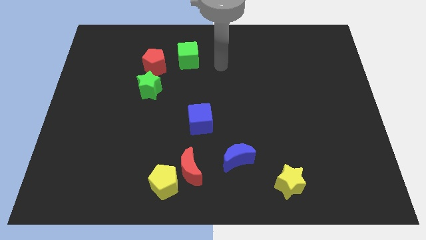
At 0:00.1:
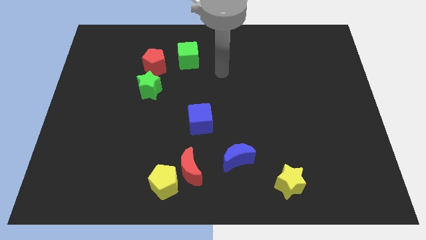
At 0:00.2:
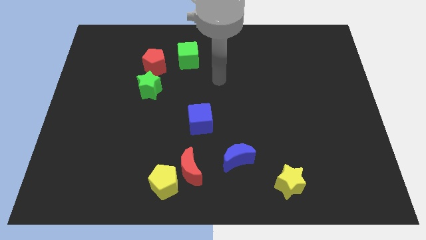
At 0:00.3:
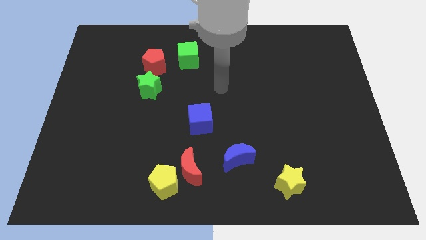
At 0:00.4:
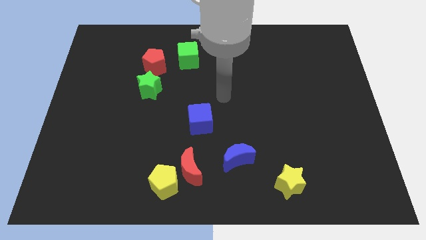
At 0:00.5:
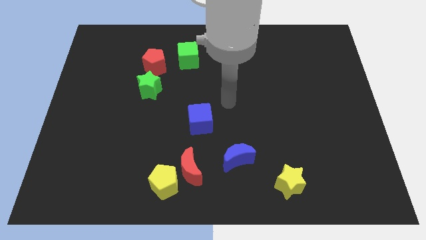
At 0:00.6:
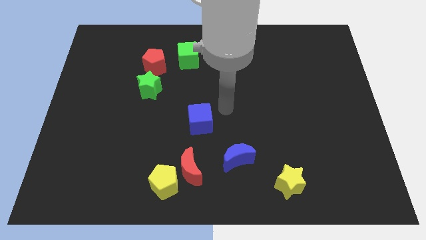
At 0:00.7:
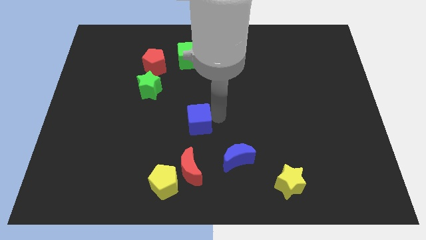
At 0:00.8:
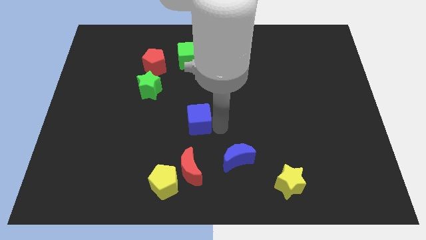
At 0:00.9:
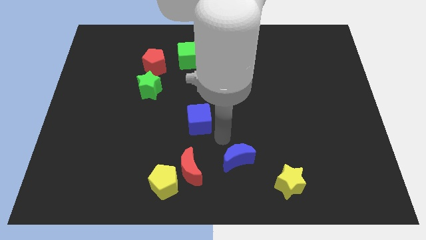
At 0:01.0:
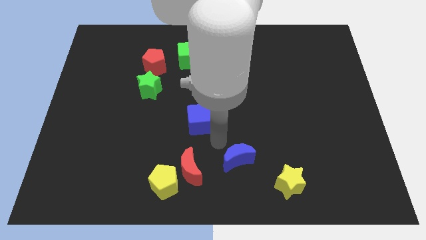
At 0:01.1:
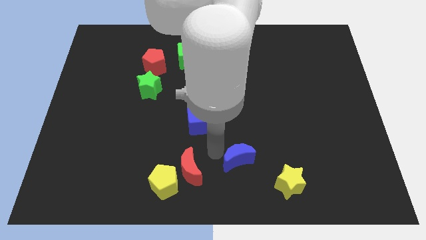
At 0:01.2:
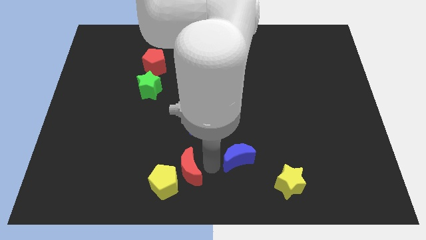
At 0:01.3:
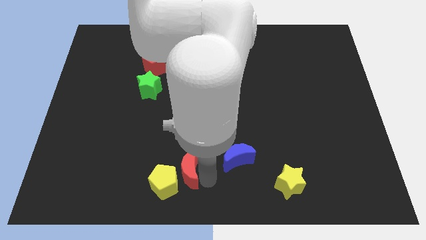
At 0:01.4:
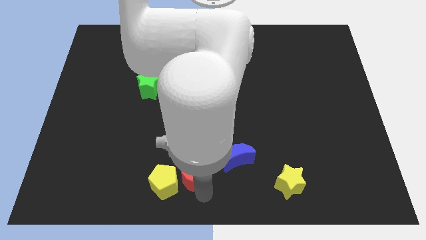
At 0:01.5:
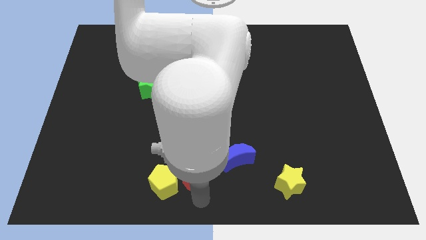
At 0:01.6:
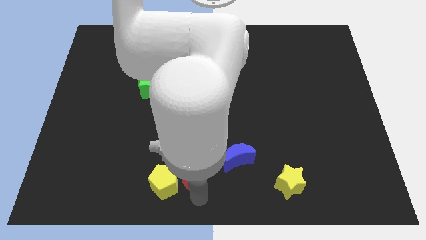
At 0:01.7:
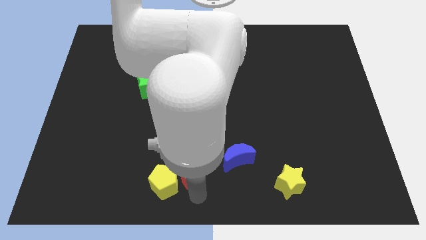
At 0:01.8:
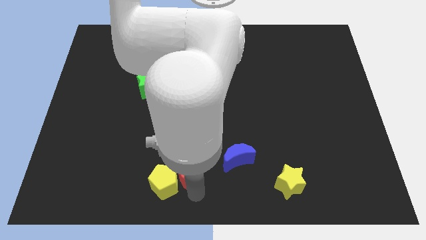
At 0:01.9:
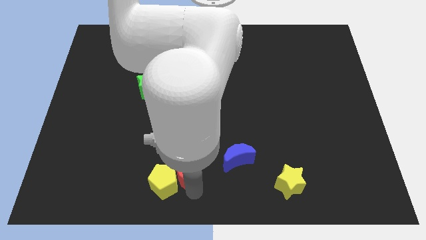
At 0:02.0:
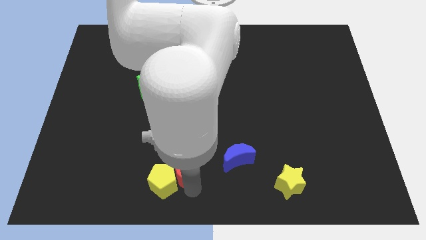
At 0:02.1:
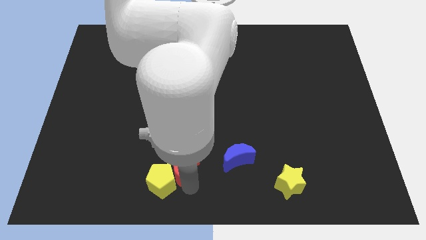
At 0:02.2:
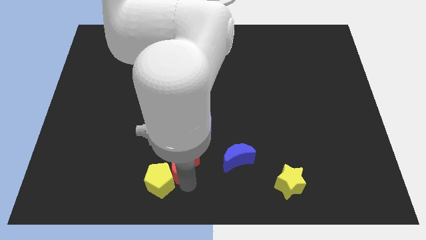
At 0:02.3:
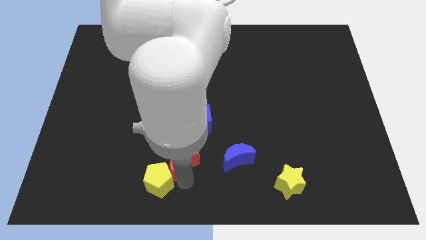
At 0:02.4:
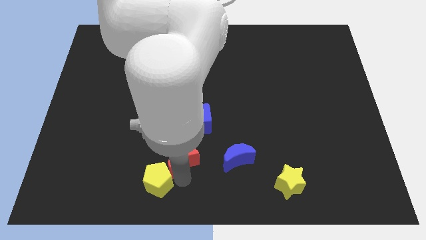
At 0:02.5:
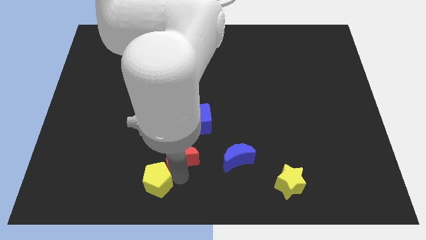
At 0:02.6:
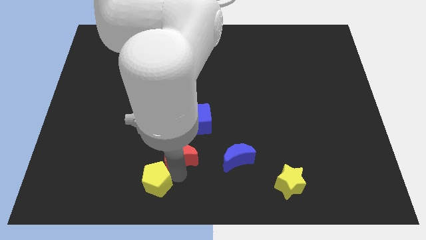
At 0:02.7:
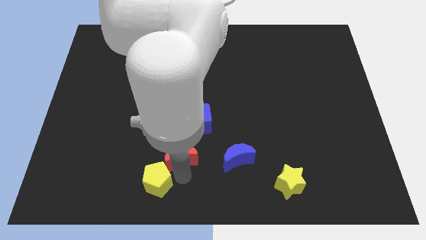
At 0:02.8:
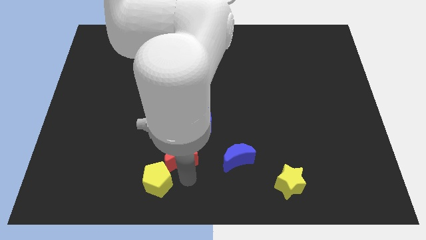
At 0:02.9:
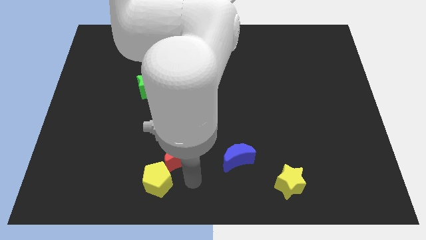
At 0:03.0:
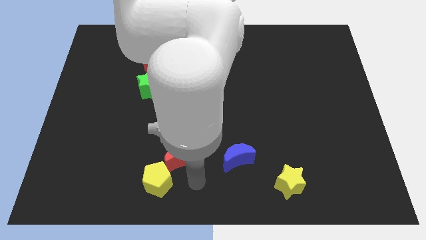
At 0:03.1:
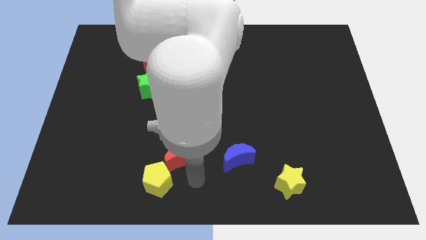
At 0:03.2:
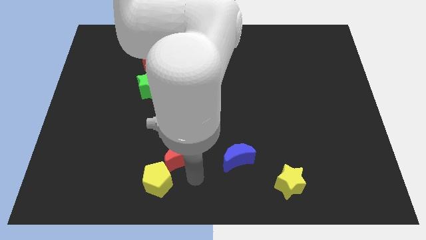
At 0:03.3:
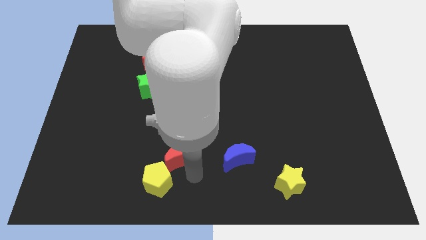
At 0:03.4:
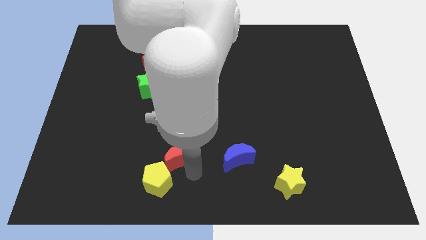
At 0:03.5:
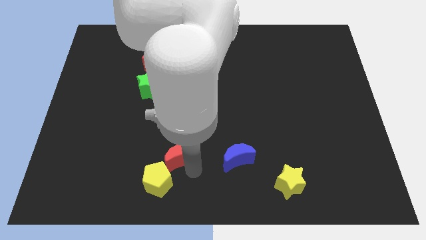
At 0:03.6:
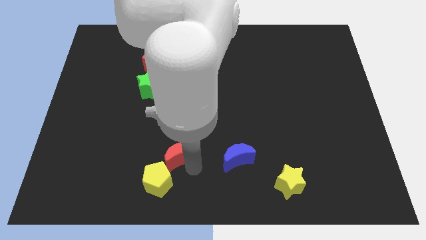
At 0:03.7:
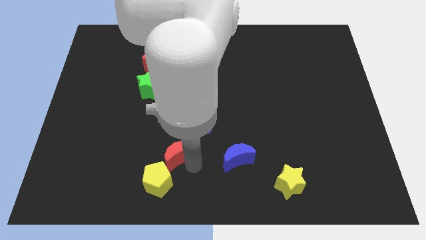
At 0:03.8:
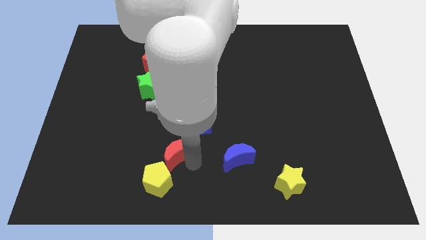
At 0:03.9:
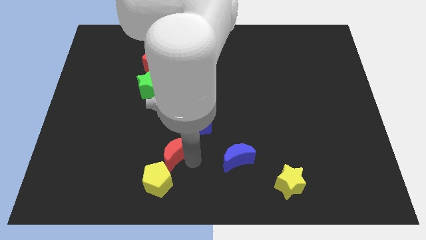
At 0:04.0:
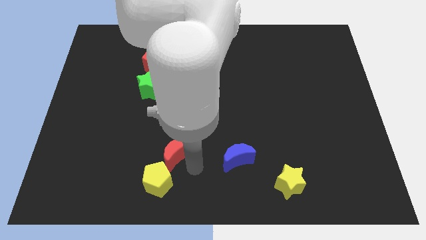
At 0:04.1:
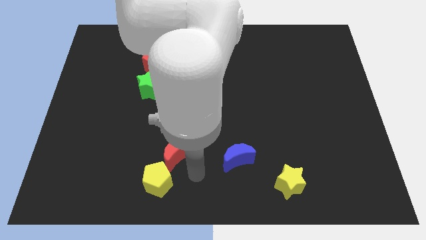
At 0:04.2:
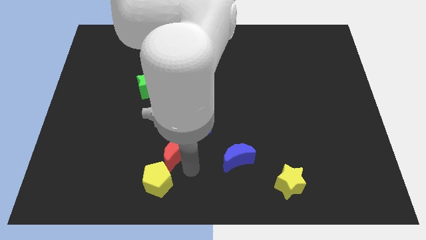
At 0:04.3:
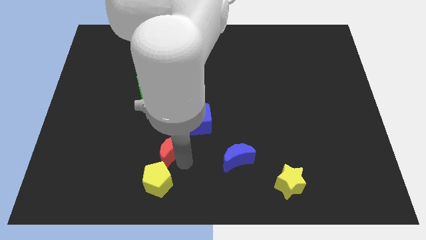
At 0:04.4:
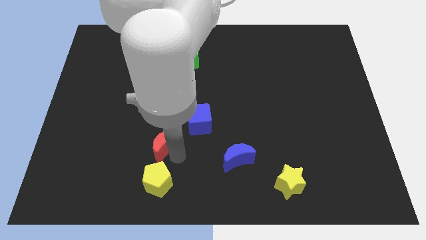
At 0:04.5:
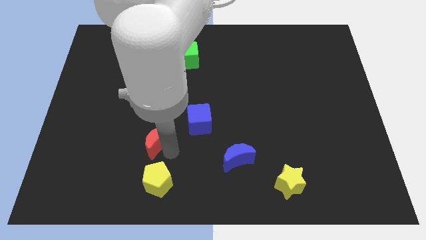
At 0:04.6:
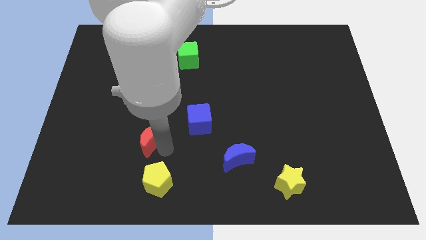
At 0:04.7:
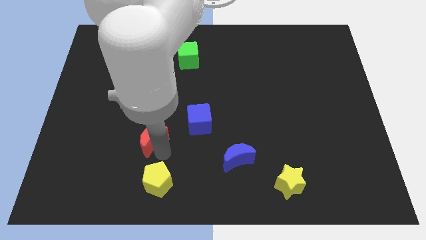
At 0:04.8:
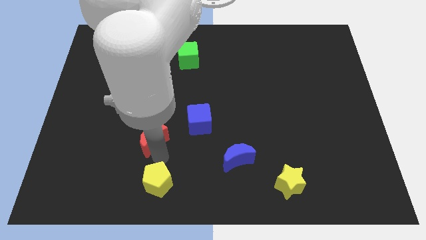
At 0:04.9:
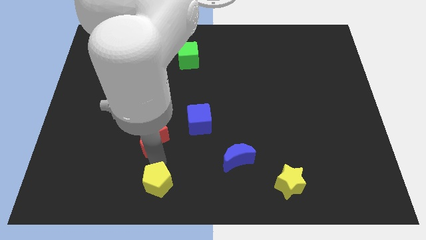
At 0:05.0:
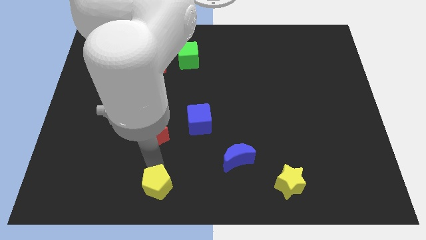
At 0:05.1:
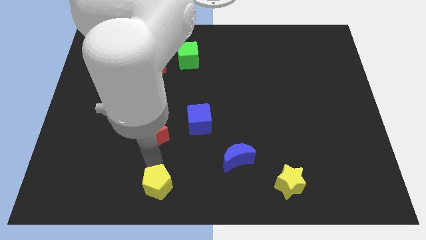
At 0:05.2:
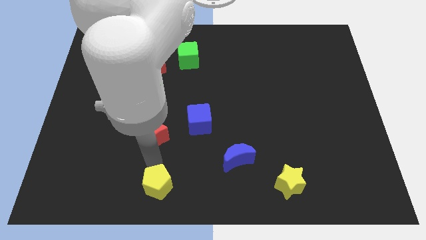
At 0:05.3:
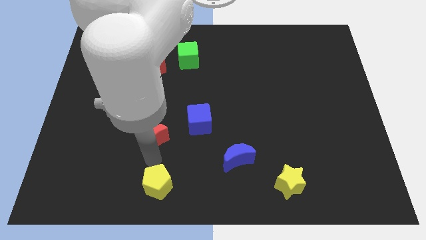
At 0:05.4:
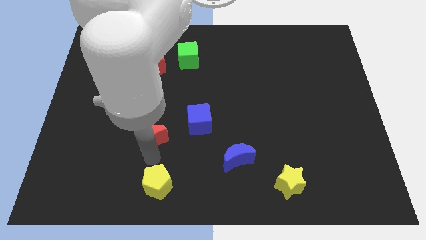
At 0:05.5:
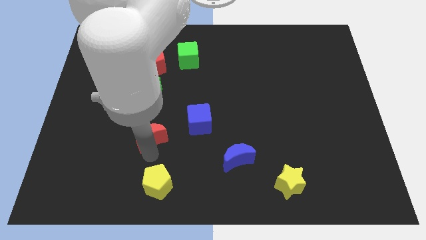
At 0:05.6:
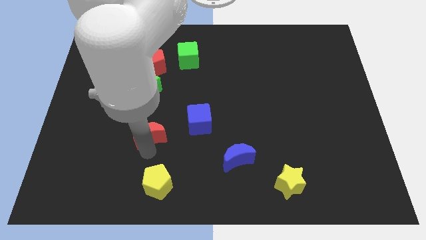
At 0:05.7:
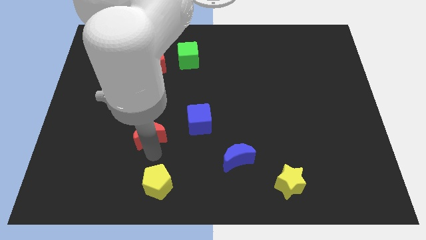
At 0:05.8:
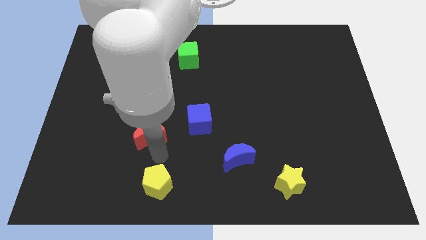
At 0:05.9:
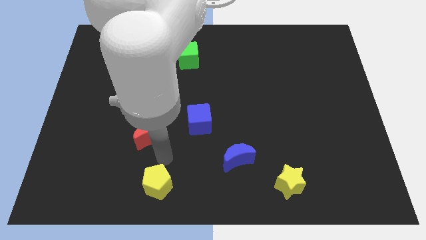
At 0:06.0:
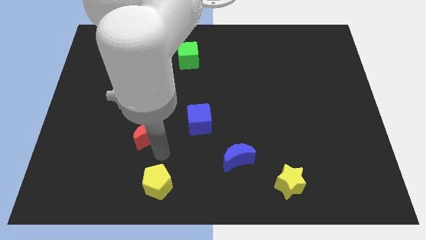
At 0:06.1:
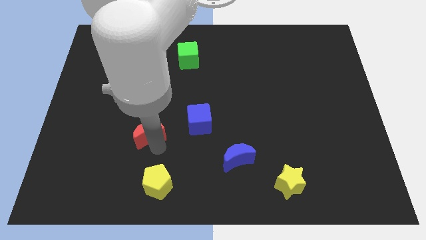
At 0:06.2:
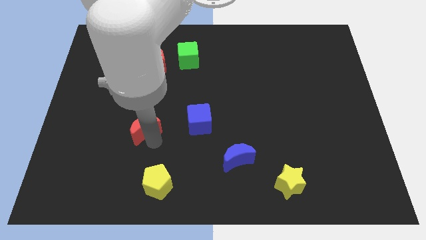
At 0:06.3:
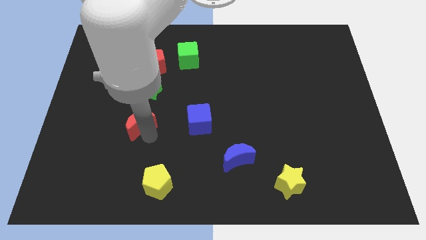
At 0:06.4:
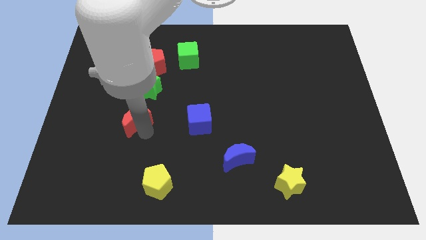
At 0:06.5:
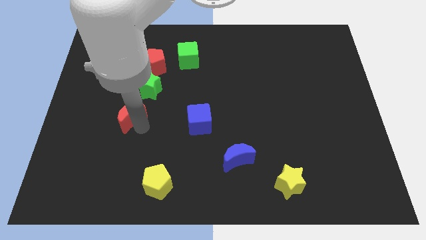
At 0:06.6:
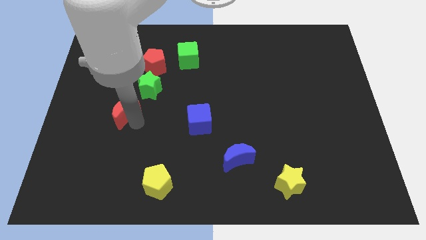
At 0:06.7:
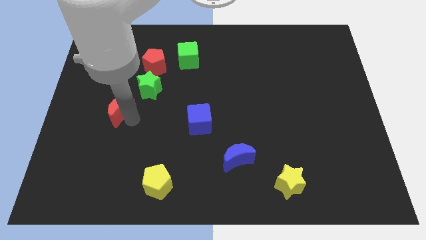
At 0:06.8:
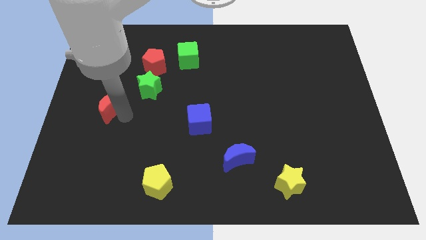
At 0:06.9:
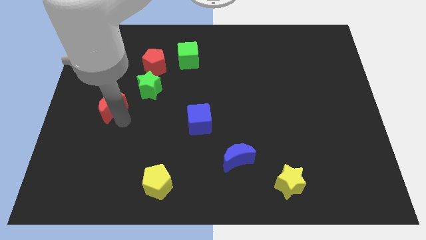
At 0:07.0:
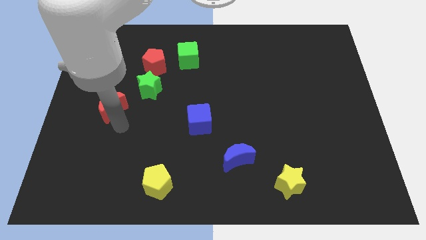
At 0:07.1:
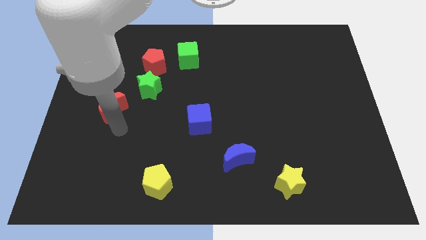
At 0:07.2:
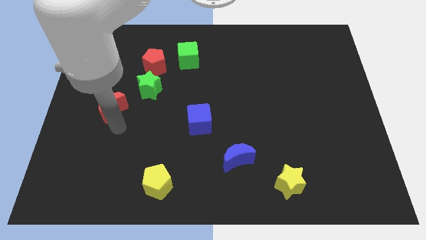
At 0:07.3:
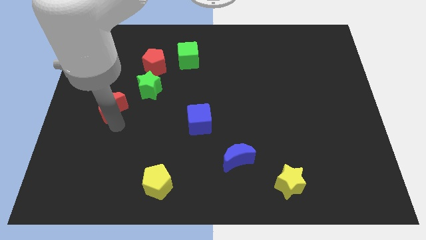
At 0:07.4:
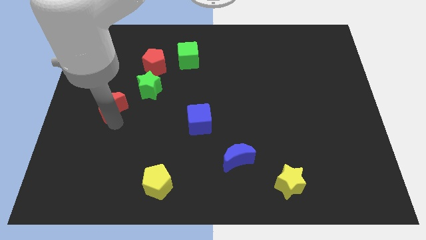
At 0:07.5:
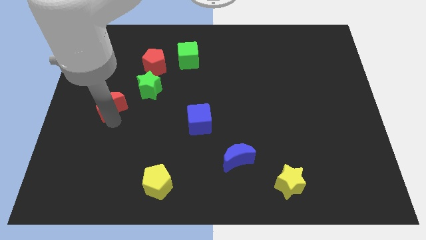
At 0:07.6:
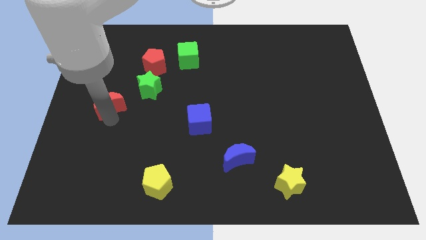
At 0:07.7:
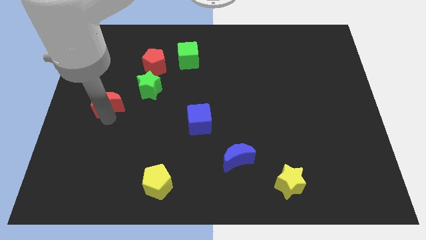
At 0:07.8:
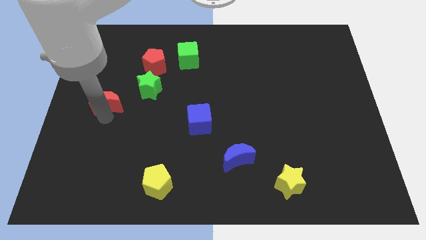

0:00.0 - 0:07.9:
put the red moon to the left of the green star
